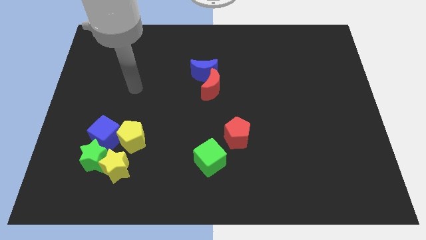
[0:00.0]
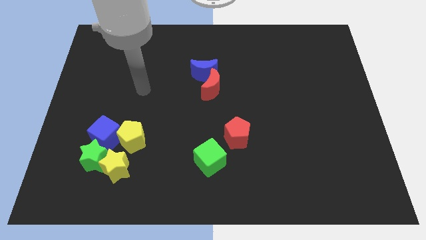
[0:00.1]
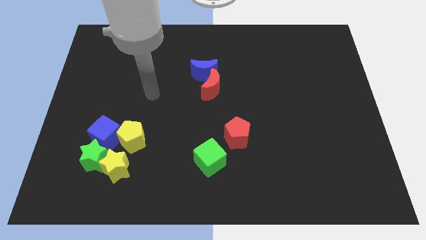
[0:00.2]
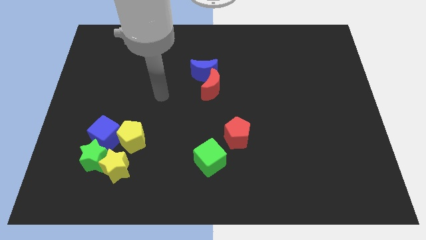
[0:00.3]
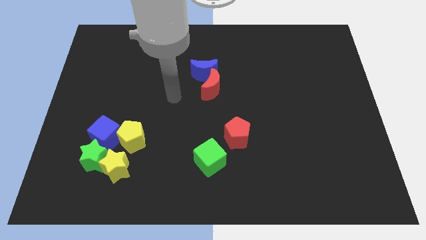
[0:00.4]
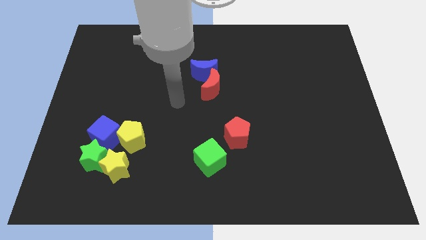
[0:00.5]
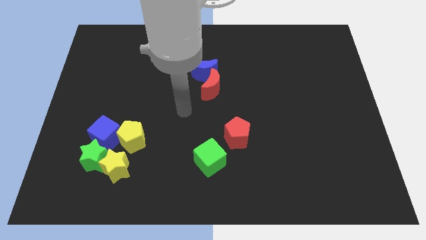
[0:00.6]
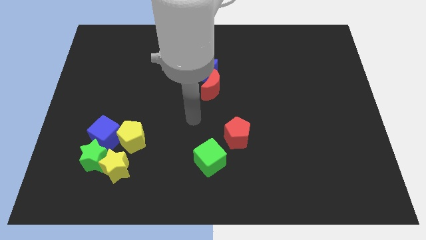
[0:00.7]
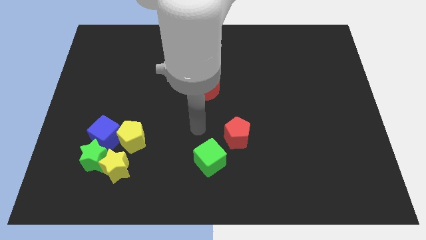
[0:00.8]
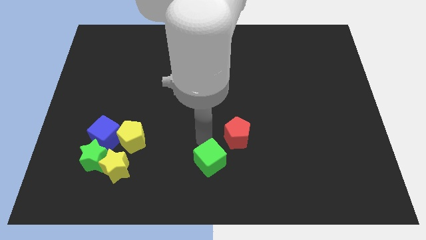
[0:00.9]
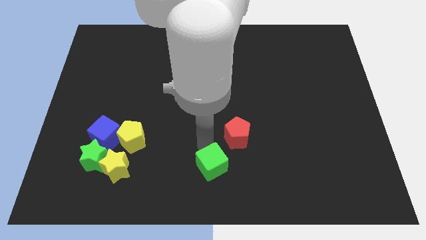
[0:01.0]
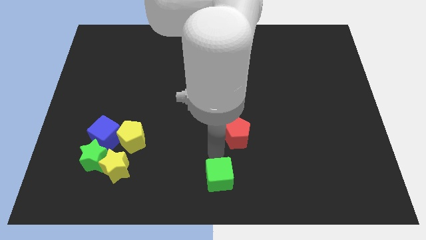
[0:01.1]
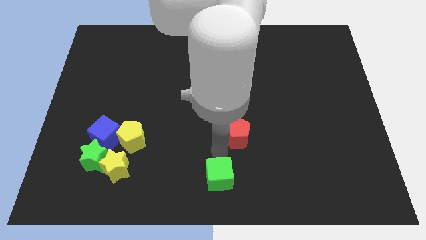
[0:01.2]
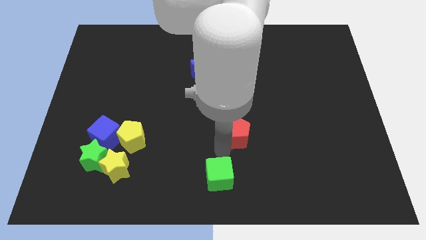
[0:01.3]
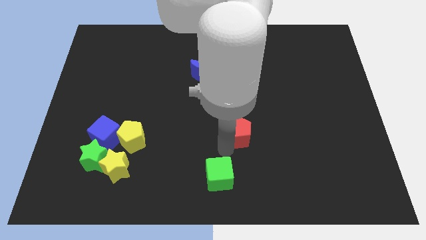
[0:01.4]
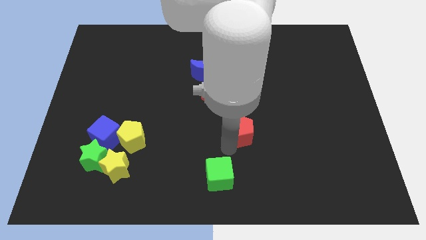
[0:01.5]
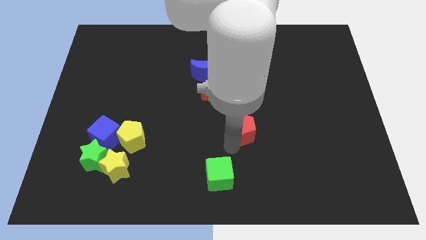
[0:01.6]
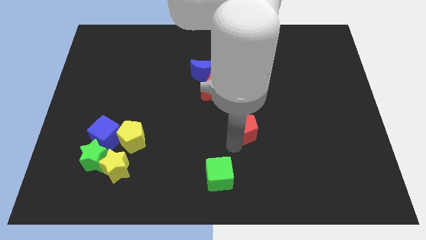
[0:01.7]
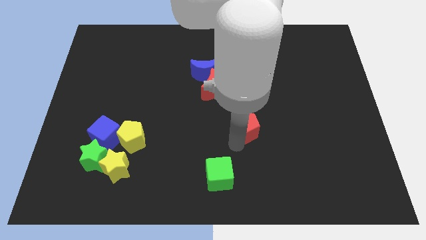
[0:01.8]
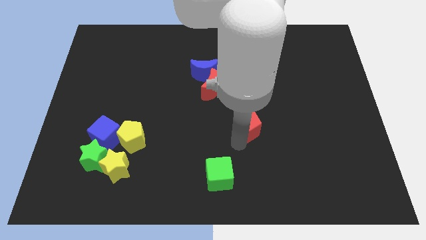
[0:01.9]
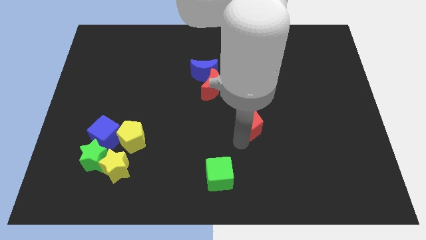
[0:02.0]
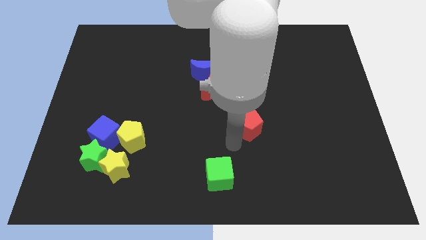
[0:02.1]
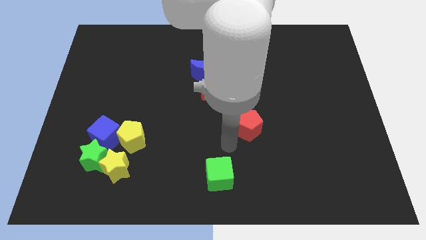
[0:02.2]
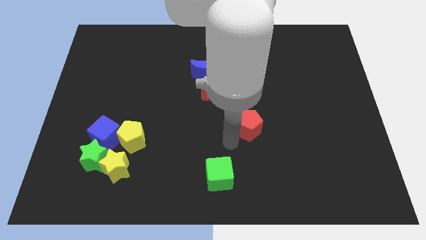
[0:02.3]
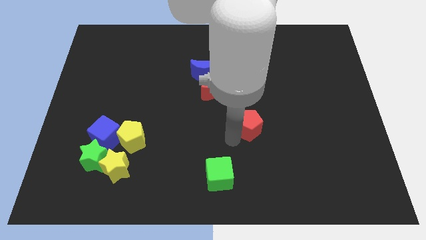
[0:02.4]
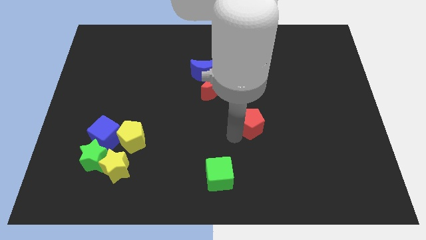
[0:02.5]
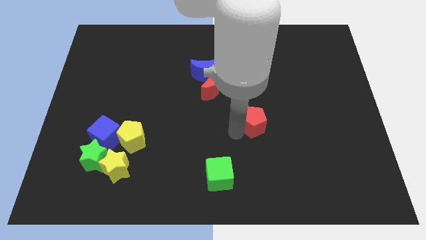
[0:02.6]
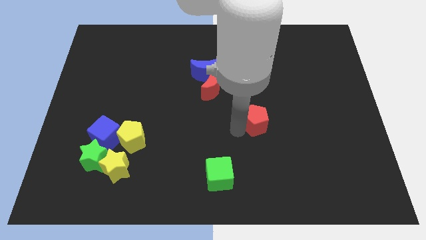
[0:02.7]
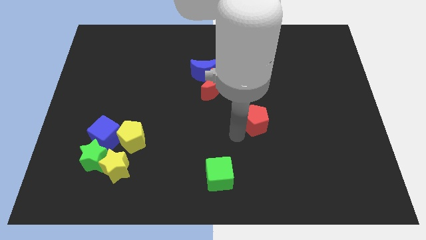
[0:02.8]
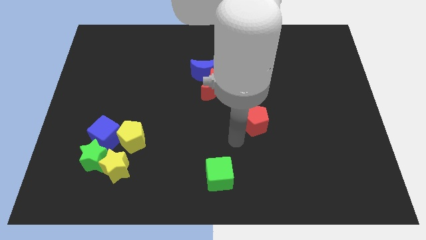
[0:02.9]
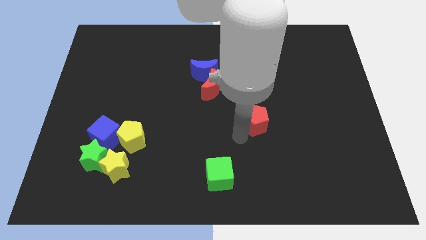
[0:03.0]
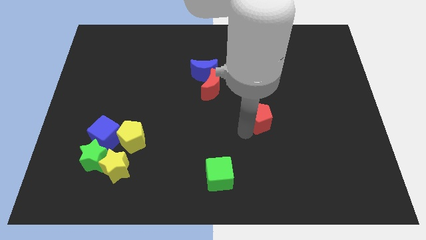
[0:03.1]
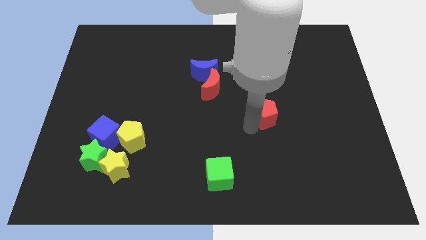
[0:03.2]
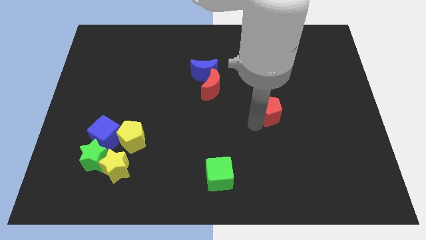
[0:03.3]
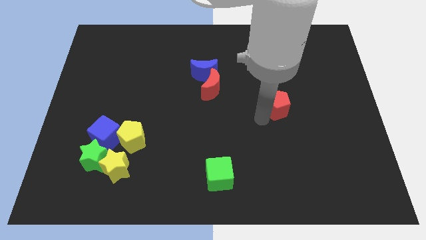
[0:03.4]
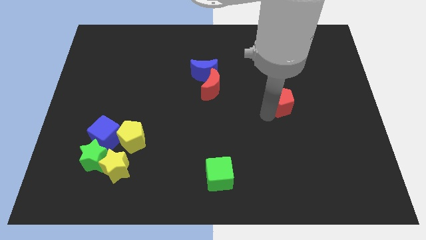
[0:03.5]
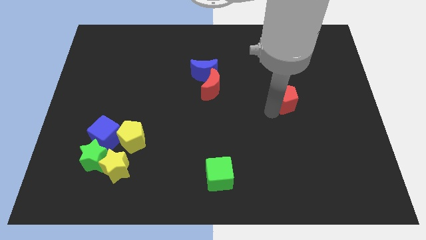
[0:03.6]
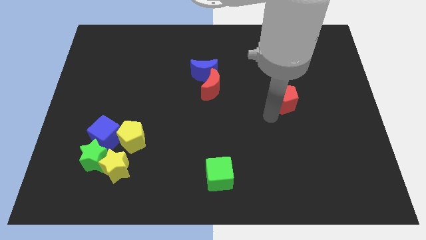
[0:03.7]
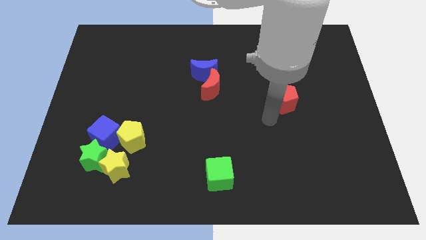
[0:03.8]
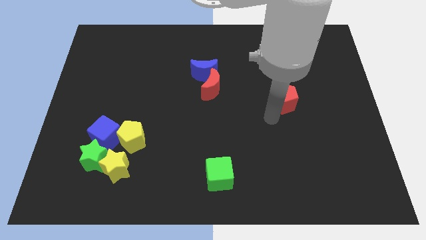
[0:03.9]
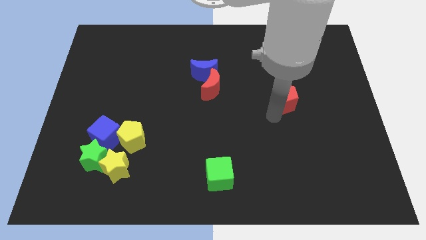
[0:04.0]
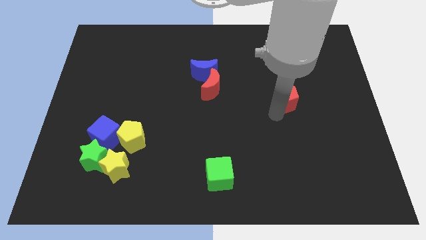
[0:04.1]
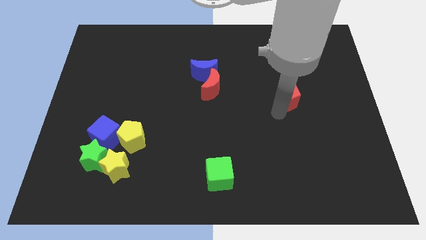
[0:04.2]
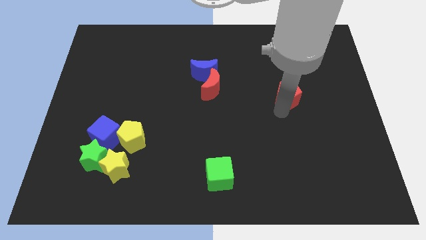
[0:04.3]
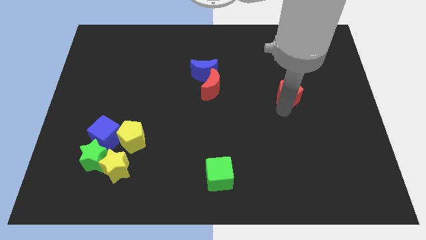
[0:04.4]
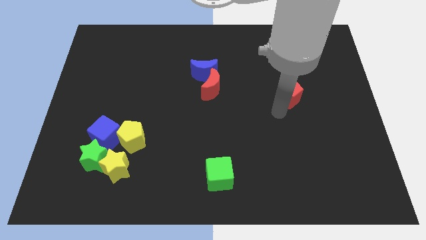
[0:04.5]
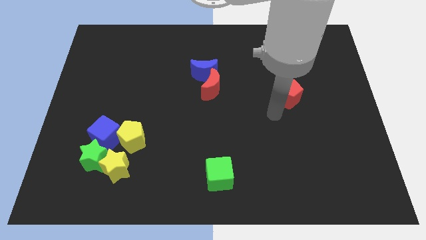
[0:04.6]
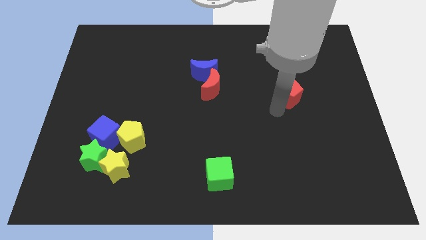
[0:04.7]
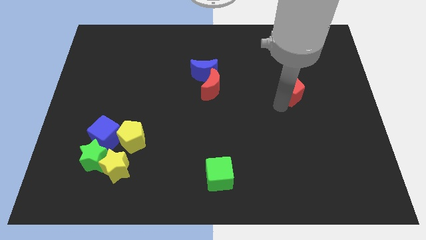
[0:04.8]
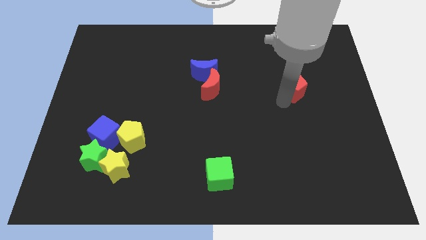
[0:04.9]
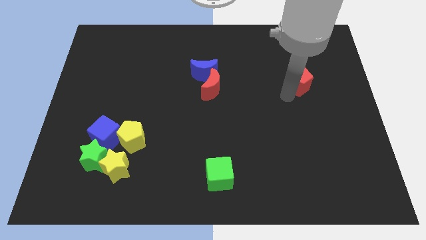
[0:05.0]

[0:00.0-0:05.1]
slide the red pentagon upwards and right diagonally

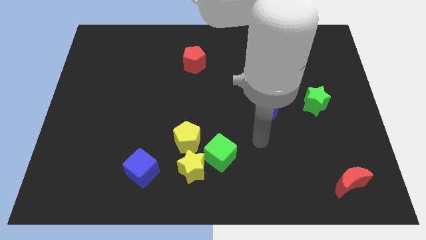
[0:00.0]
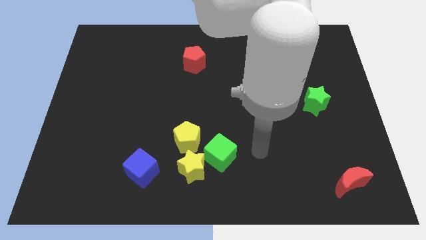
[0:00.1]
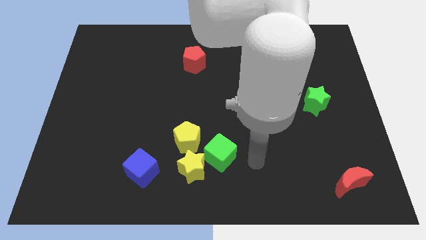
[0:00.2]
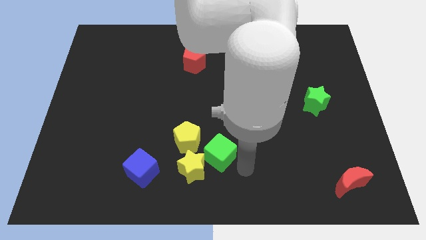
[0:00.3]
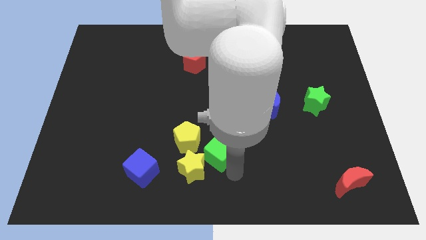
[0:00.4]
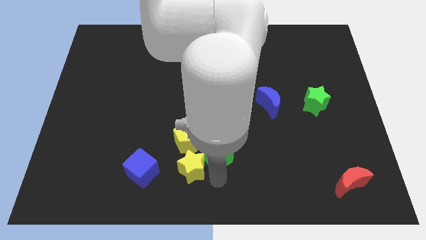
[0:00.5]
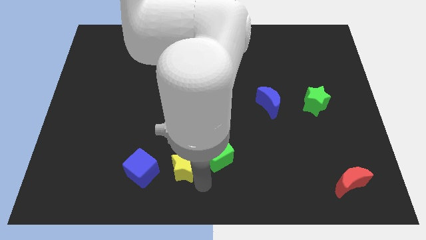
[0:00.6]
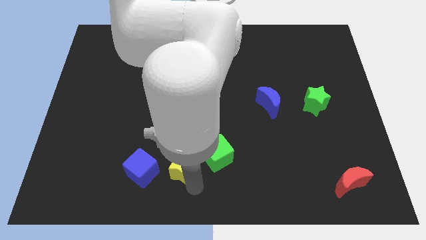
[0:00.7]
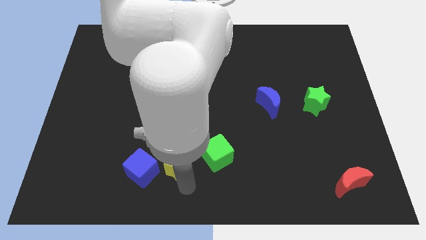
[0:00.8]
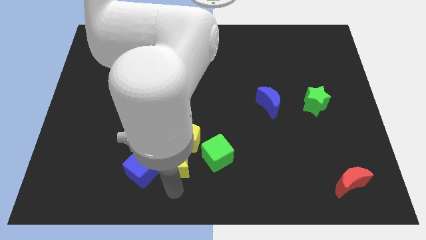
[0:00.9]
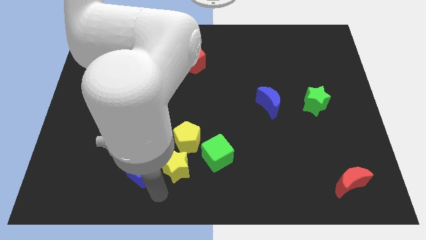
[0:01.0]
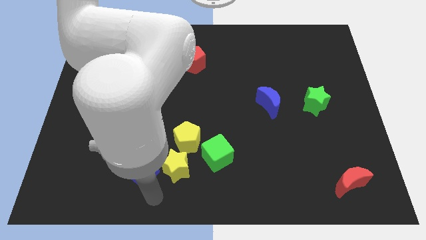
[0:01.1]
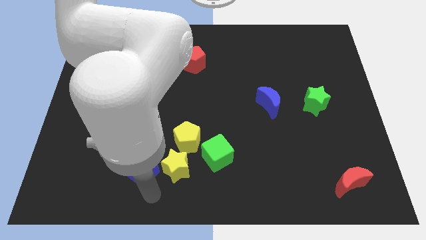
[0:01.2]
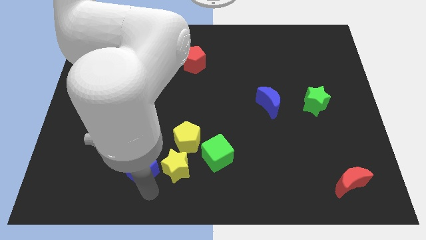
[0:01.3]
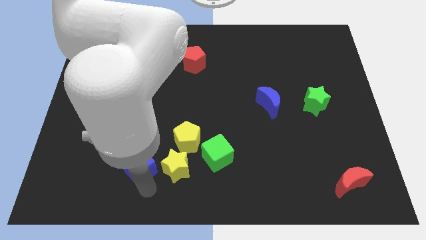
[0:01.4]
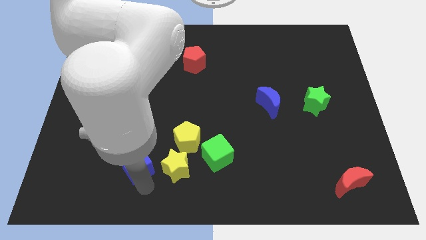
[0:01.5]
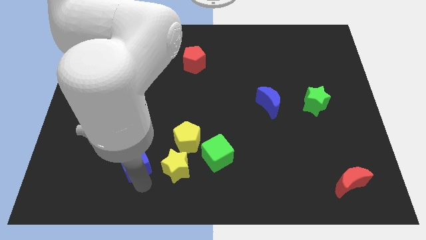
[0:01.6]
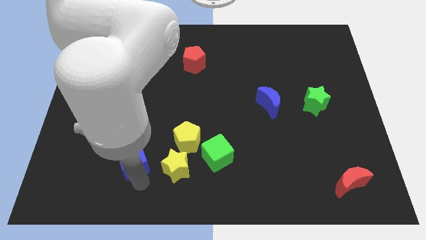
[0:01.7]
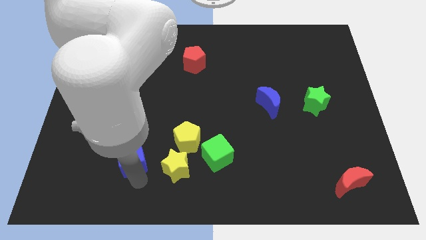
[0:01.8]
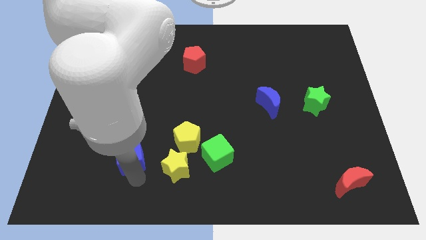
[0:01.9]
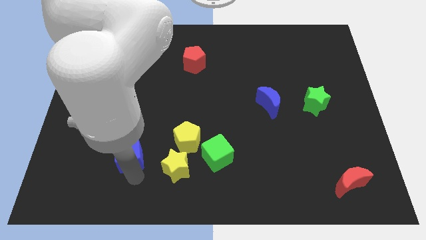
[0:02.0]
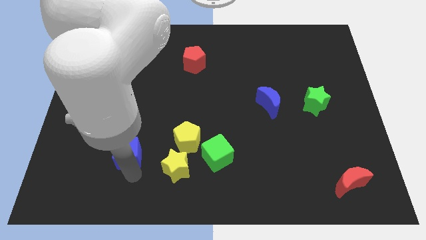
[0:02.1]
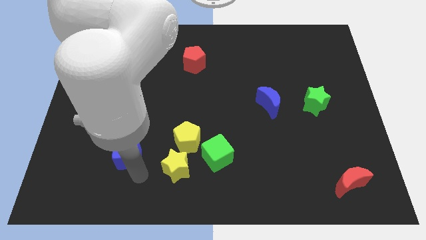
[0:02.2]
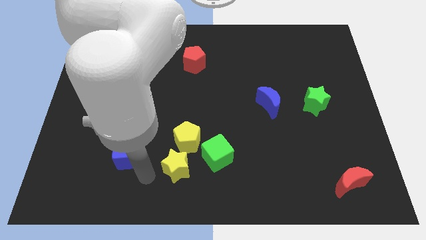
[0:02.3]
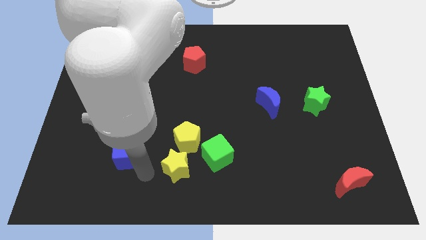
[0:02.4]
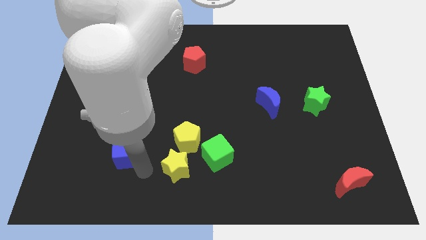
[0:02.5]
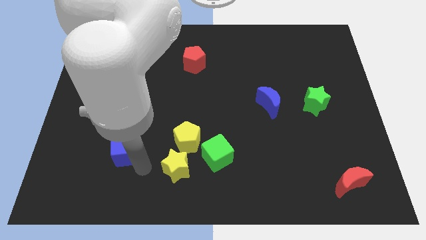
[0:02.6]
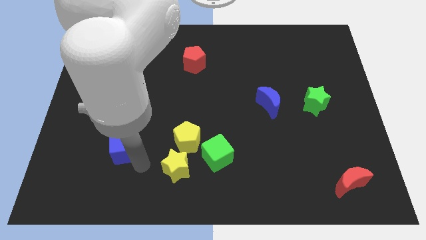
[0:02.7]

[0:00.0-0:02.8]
slightly move the blue cube upwards and to the left diagonally
